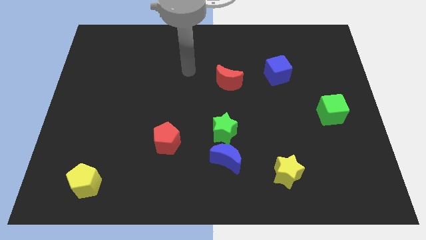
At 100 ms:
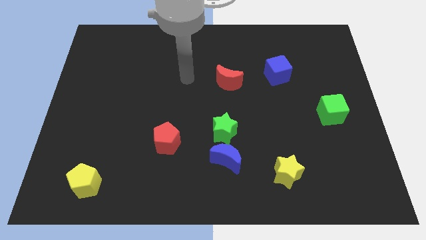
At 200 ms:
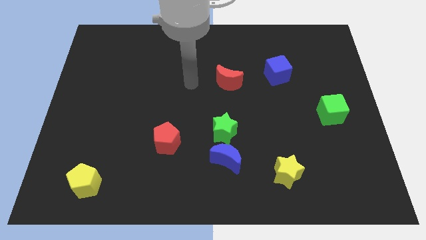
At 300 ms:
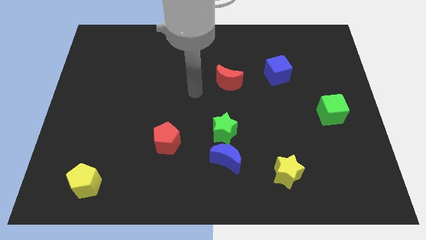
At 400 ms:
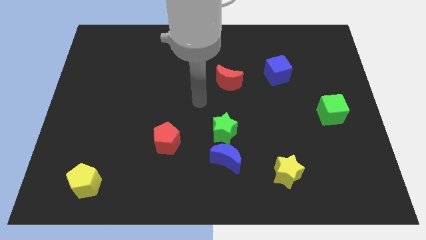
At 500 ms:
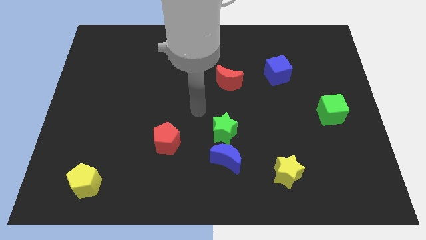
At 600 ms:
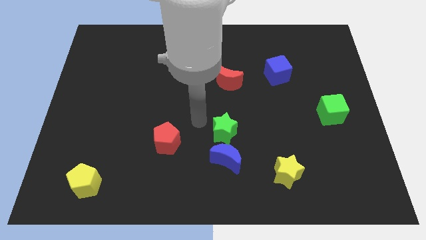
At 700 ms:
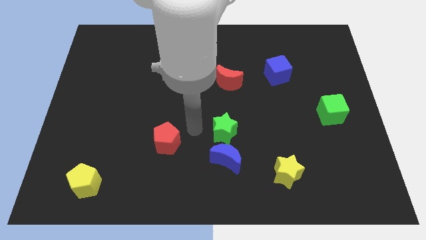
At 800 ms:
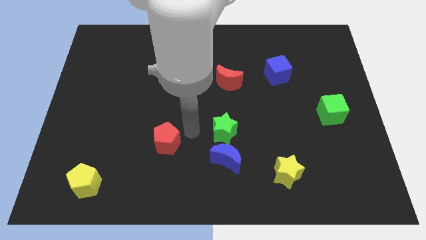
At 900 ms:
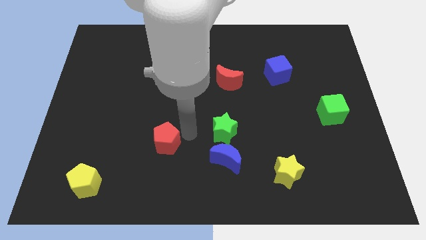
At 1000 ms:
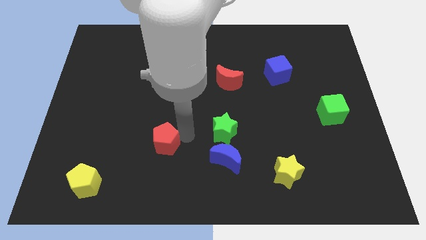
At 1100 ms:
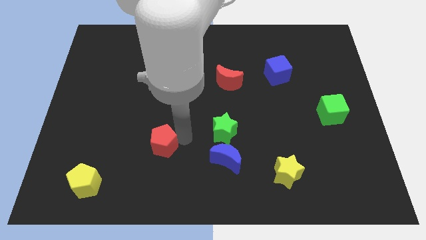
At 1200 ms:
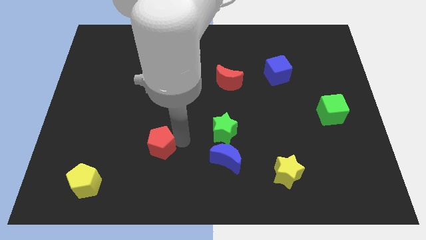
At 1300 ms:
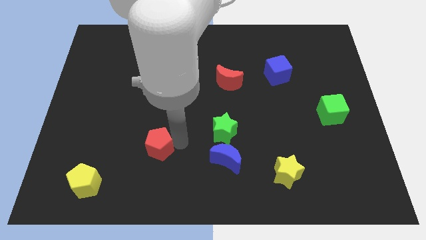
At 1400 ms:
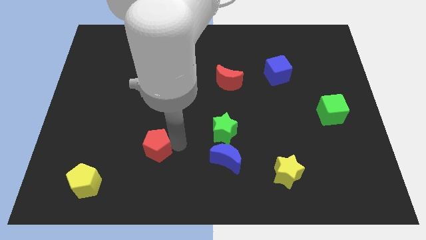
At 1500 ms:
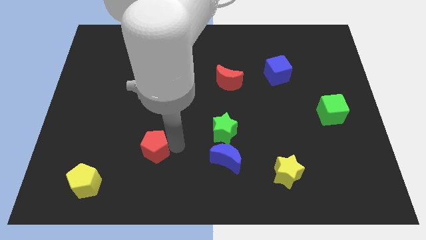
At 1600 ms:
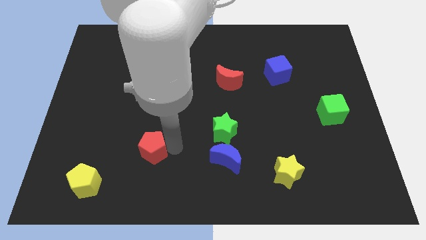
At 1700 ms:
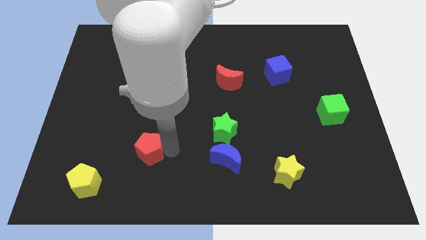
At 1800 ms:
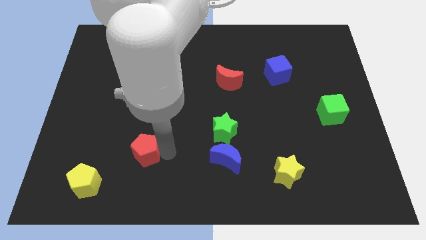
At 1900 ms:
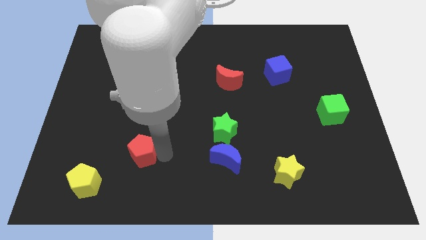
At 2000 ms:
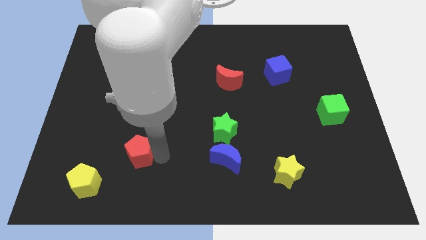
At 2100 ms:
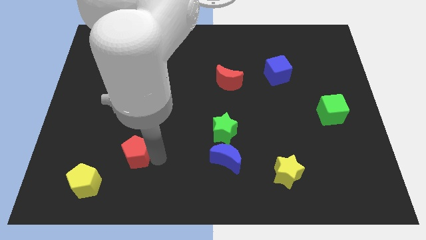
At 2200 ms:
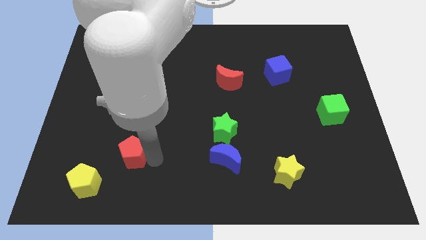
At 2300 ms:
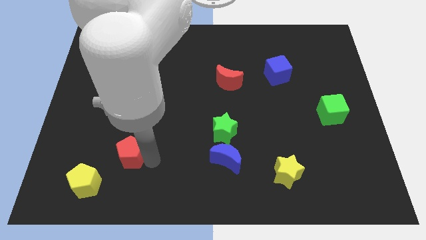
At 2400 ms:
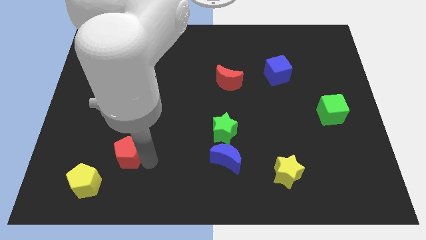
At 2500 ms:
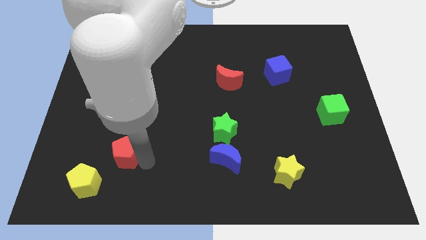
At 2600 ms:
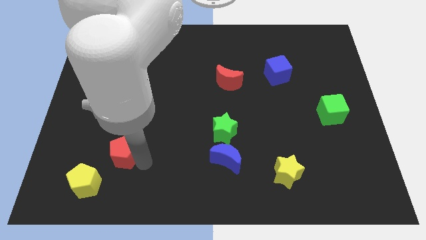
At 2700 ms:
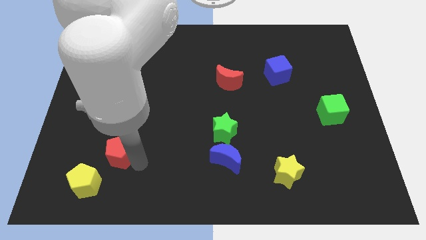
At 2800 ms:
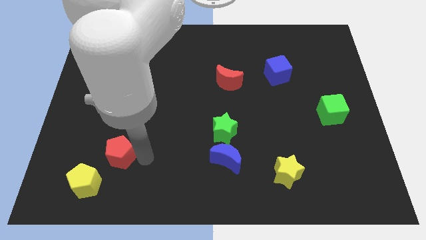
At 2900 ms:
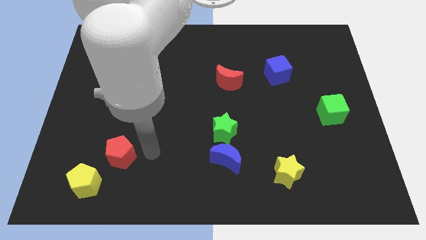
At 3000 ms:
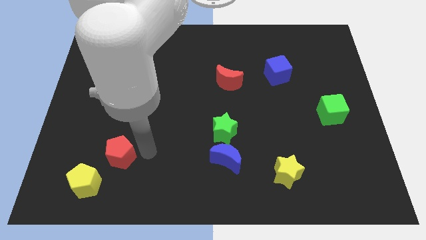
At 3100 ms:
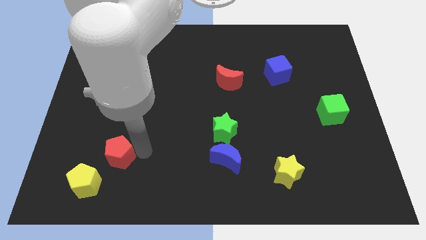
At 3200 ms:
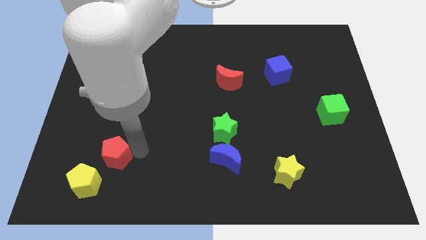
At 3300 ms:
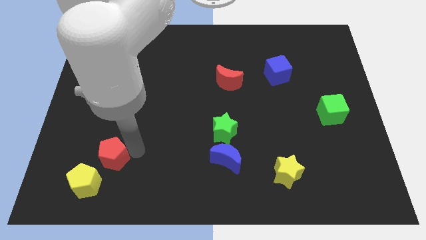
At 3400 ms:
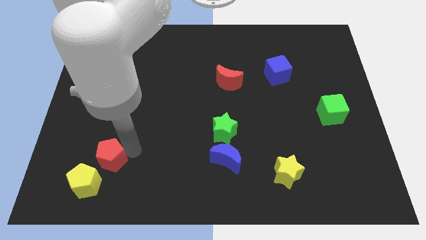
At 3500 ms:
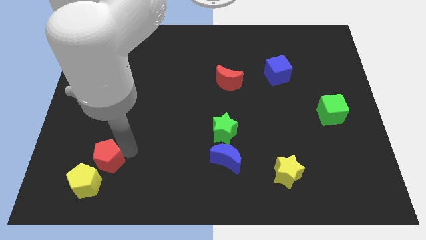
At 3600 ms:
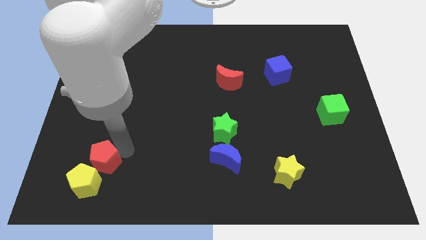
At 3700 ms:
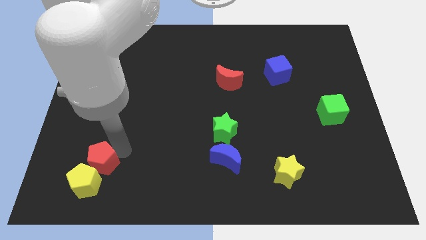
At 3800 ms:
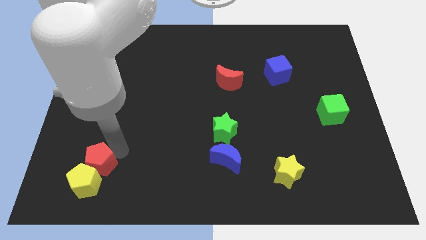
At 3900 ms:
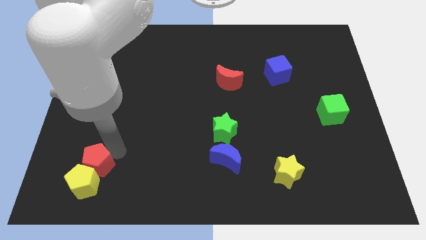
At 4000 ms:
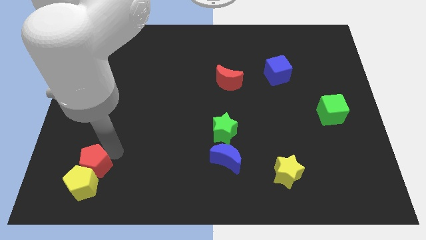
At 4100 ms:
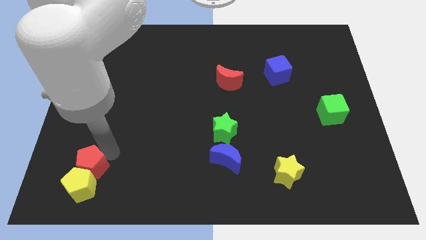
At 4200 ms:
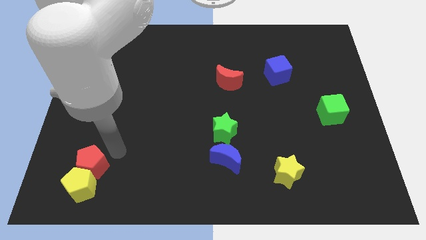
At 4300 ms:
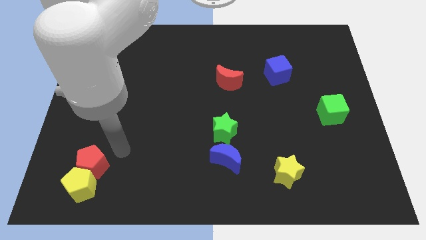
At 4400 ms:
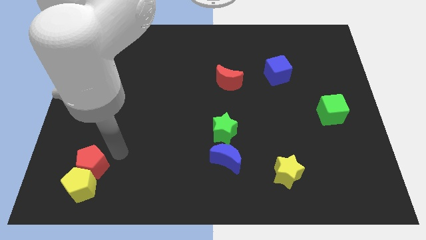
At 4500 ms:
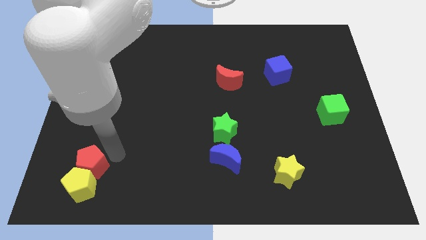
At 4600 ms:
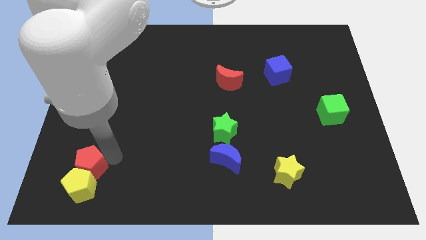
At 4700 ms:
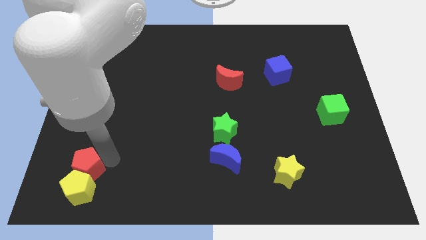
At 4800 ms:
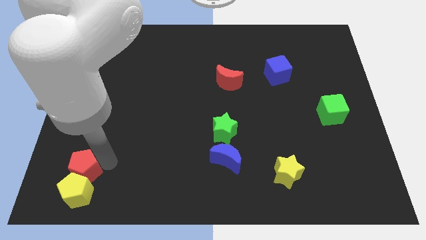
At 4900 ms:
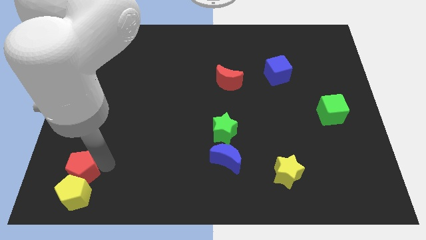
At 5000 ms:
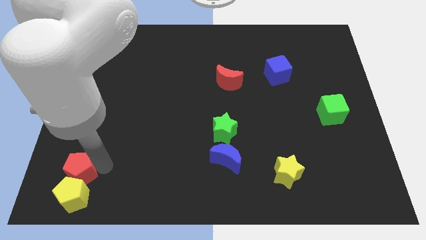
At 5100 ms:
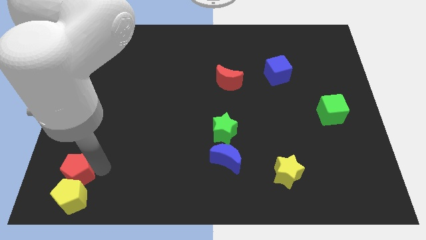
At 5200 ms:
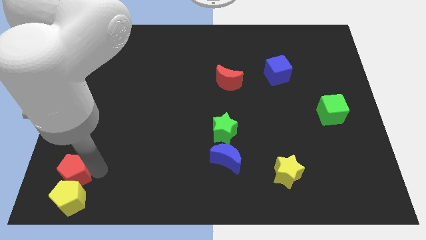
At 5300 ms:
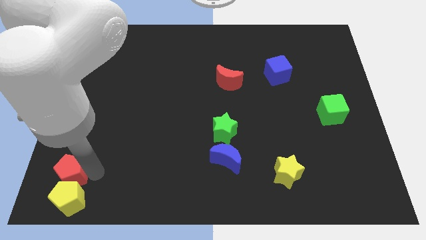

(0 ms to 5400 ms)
slide the red pentagon to the bottom left of the board

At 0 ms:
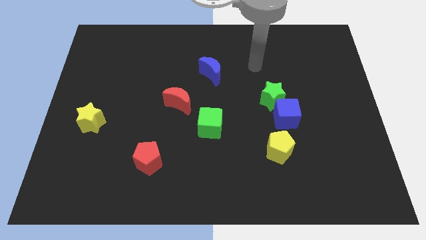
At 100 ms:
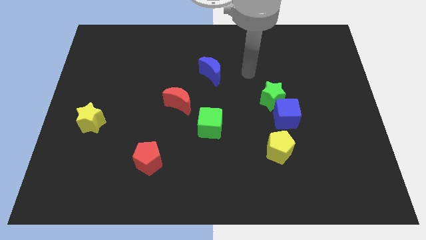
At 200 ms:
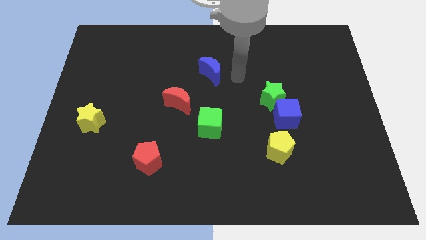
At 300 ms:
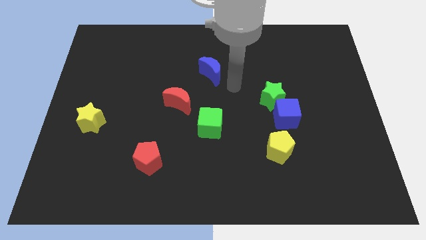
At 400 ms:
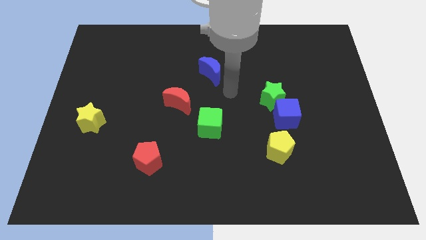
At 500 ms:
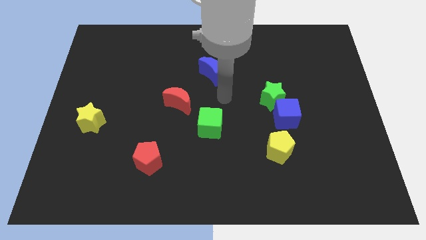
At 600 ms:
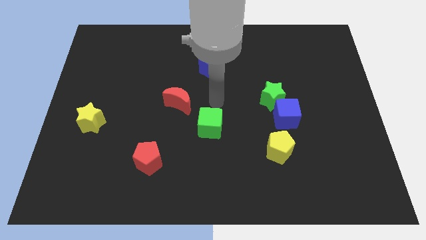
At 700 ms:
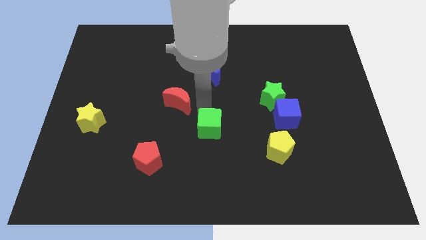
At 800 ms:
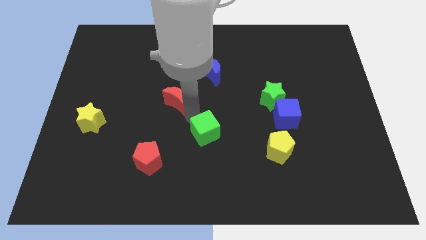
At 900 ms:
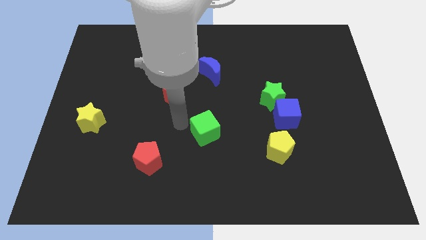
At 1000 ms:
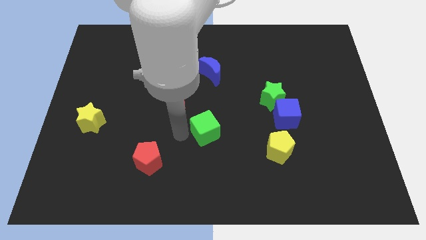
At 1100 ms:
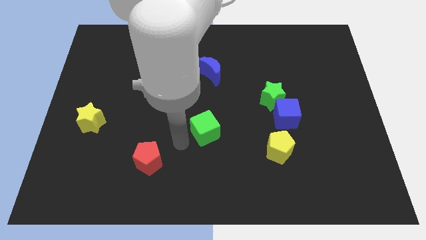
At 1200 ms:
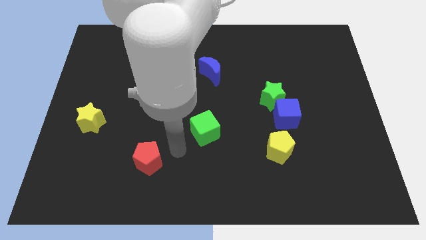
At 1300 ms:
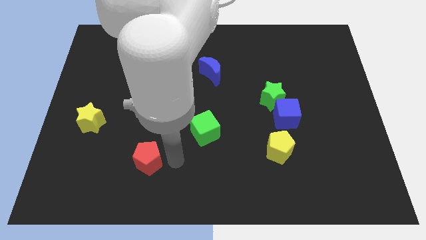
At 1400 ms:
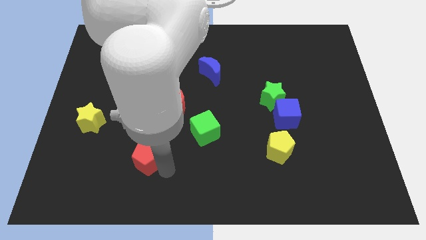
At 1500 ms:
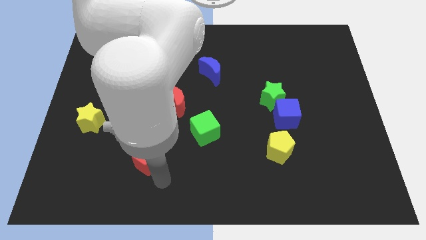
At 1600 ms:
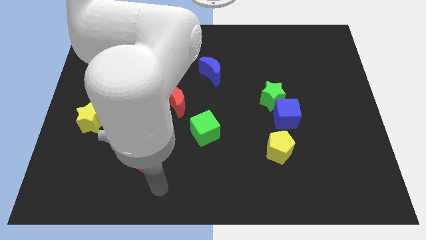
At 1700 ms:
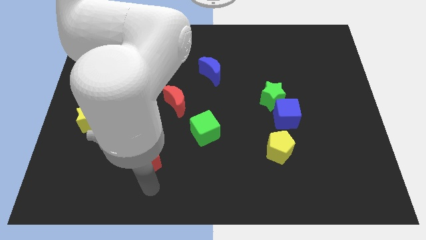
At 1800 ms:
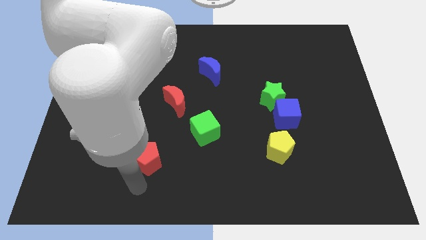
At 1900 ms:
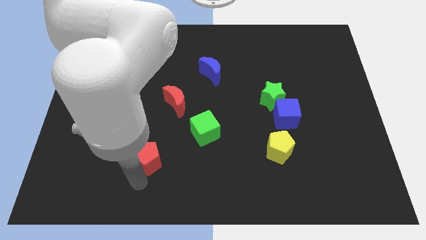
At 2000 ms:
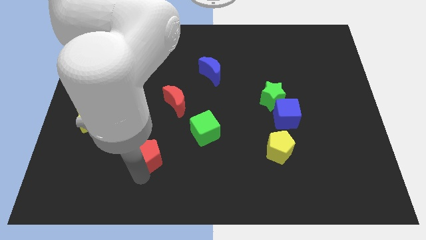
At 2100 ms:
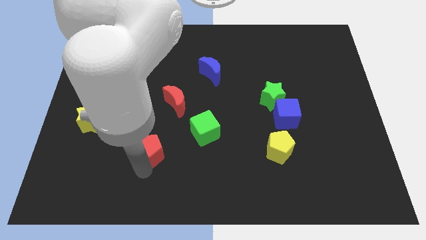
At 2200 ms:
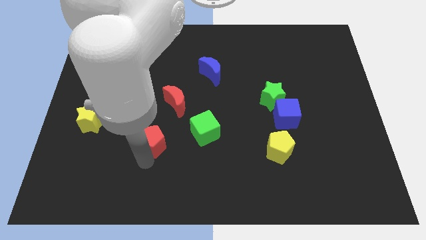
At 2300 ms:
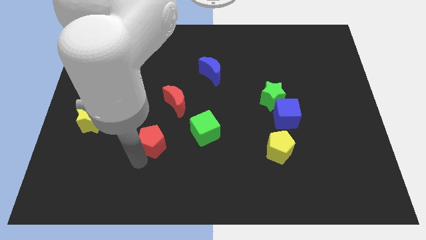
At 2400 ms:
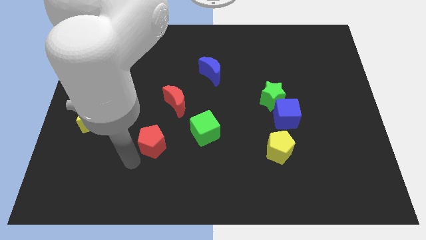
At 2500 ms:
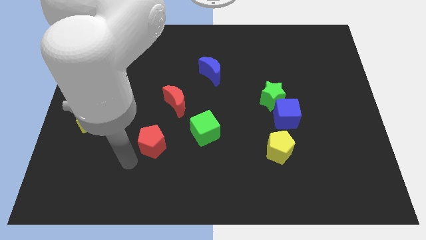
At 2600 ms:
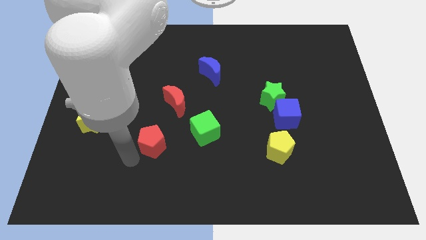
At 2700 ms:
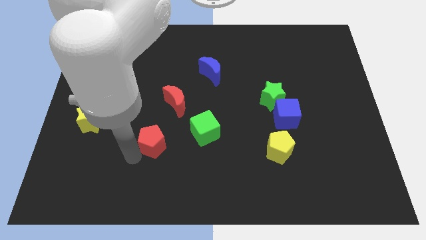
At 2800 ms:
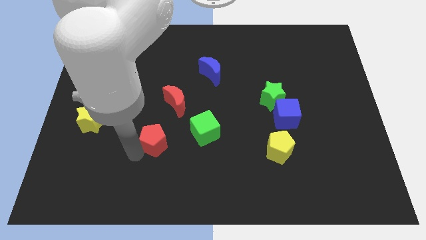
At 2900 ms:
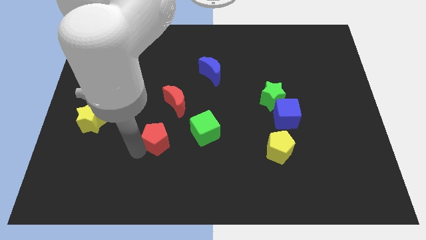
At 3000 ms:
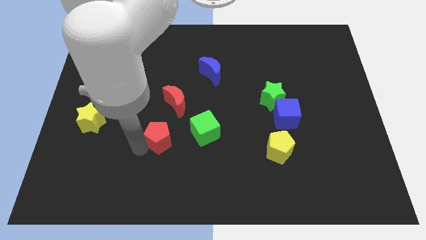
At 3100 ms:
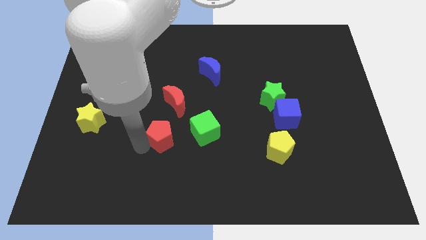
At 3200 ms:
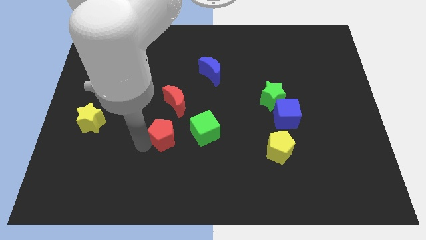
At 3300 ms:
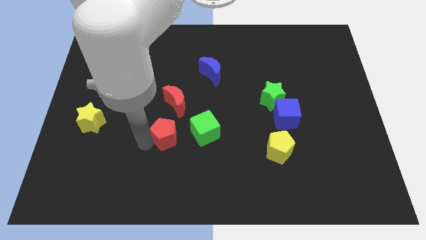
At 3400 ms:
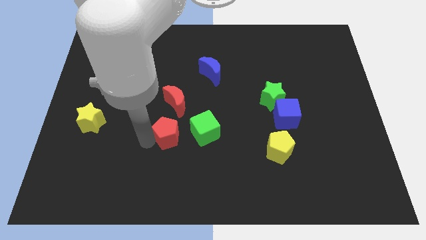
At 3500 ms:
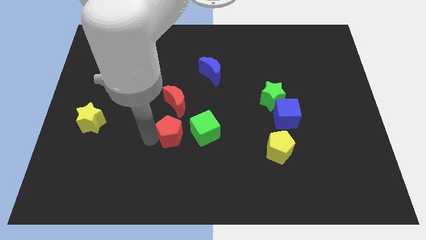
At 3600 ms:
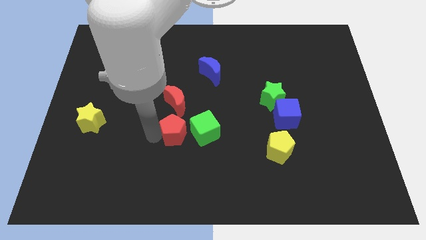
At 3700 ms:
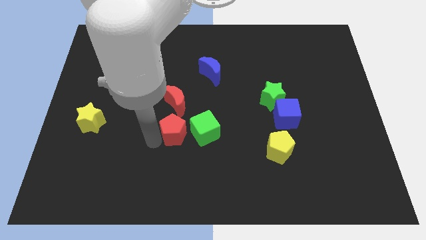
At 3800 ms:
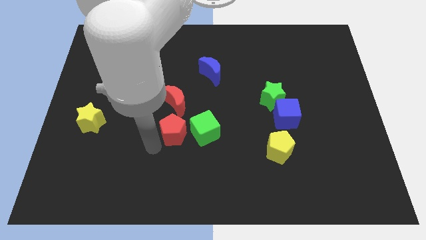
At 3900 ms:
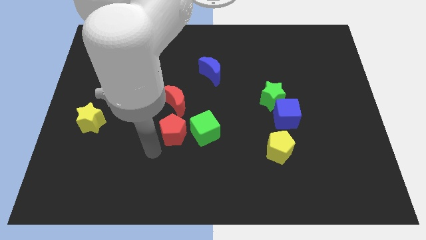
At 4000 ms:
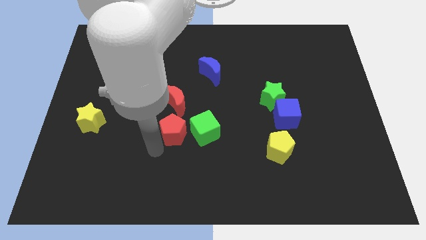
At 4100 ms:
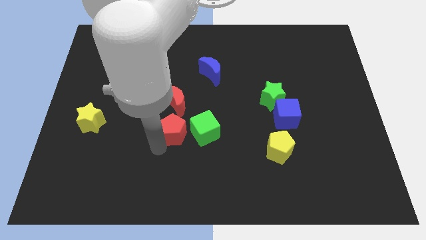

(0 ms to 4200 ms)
slide the red pentagon to the center
